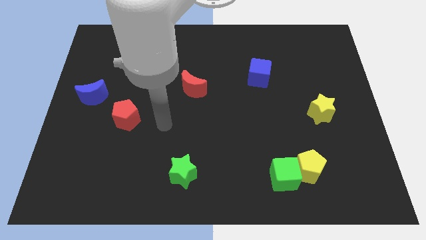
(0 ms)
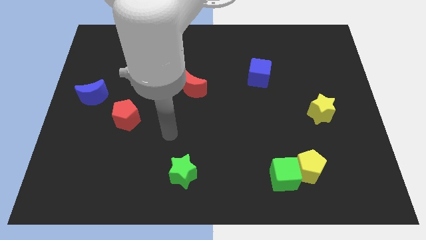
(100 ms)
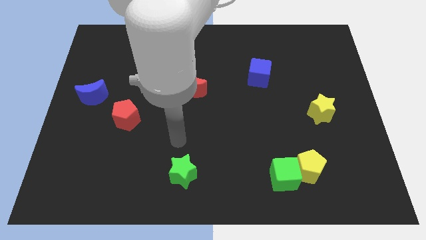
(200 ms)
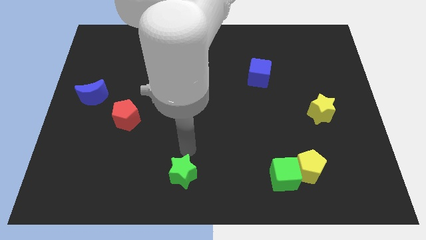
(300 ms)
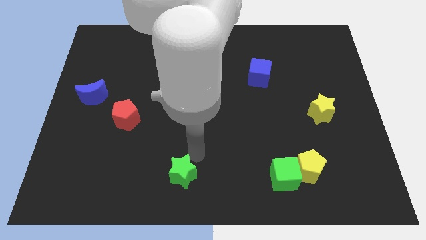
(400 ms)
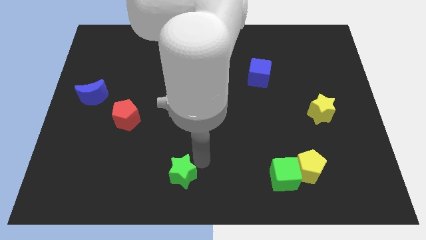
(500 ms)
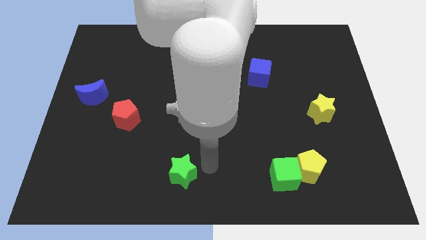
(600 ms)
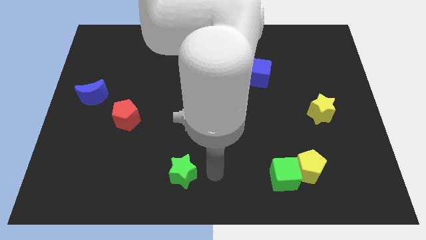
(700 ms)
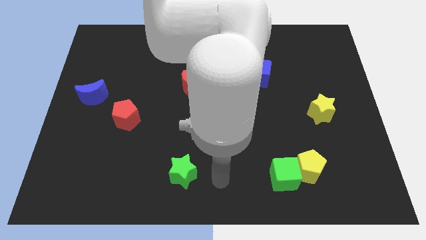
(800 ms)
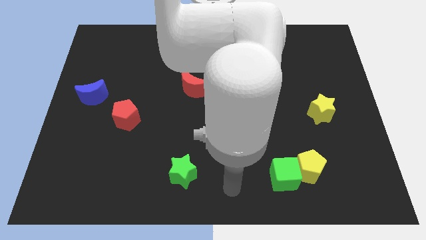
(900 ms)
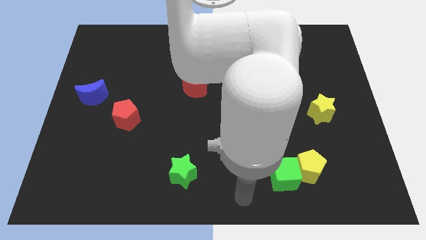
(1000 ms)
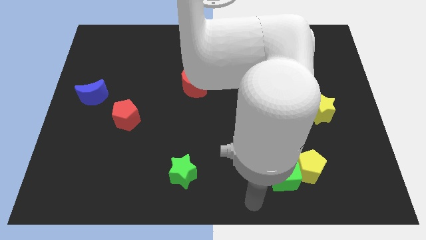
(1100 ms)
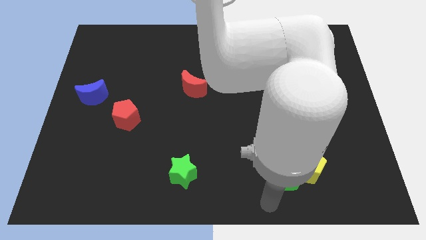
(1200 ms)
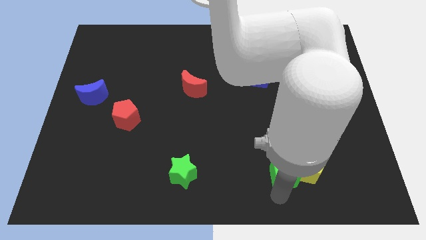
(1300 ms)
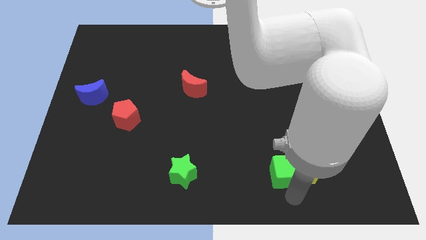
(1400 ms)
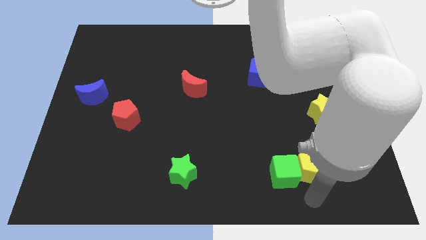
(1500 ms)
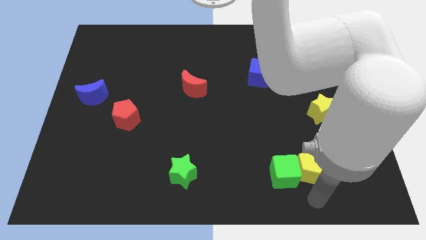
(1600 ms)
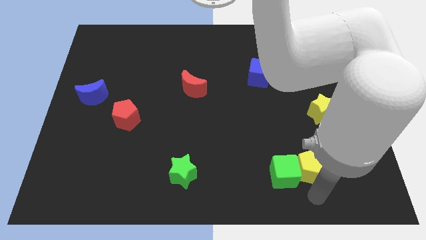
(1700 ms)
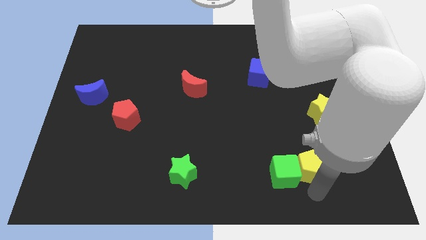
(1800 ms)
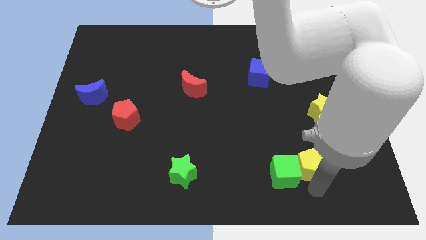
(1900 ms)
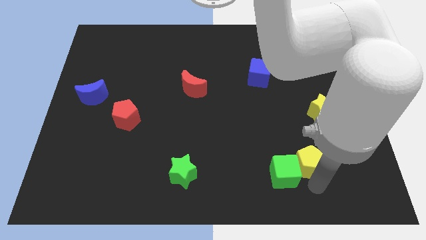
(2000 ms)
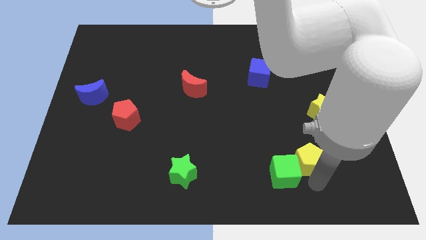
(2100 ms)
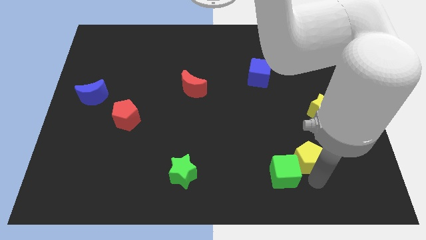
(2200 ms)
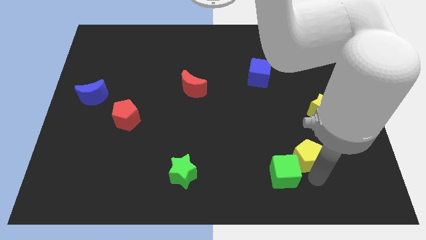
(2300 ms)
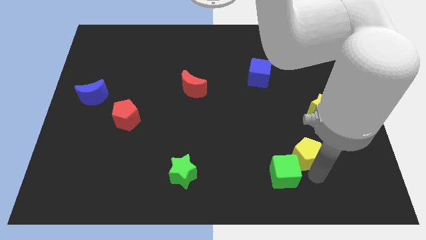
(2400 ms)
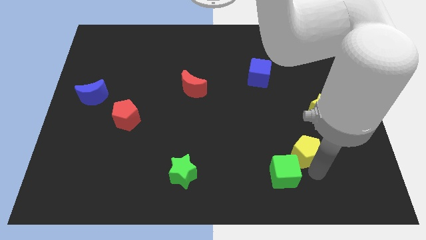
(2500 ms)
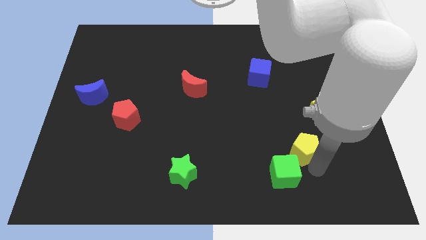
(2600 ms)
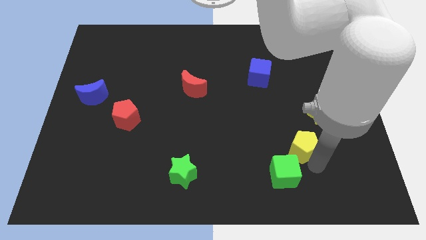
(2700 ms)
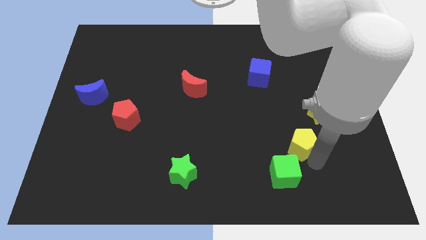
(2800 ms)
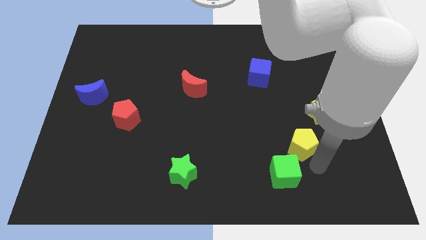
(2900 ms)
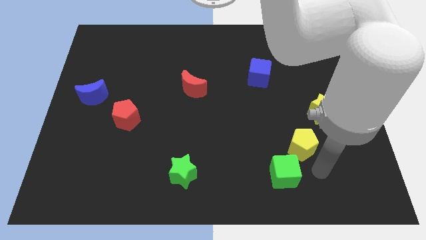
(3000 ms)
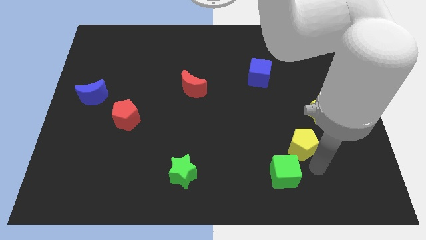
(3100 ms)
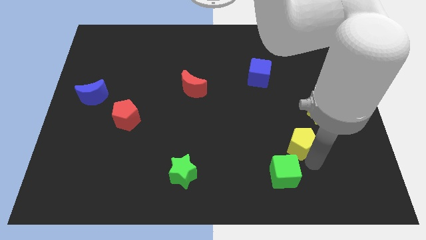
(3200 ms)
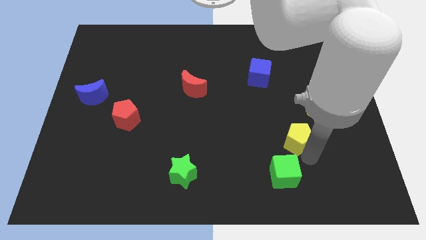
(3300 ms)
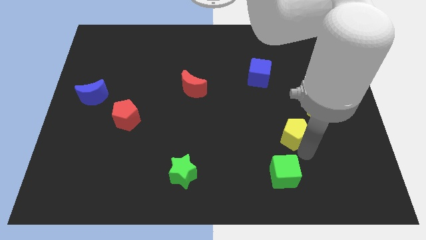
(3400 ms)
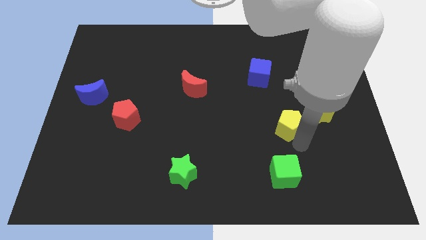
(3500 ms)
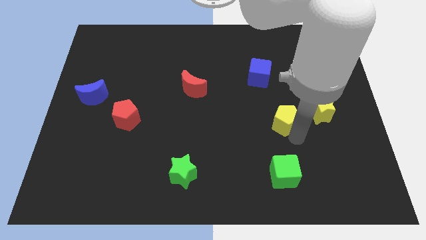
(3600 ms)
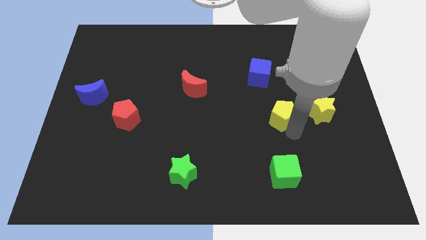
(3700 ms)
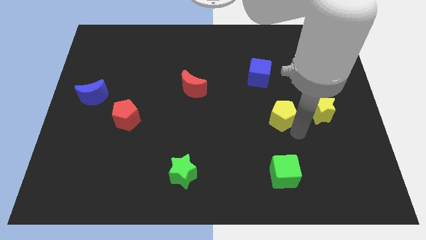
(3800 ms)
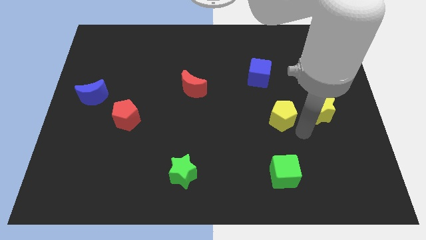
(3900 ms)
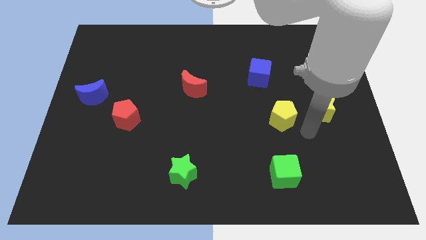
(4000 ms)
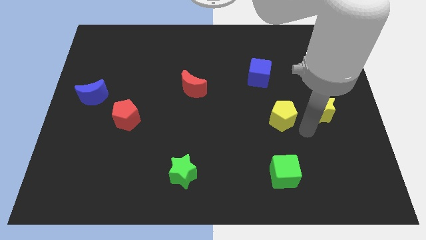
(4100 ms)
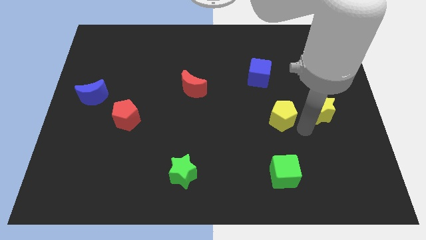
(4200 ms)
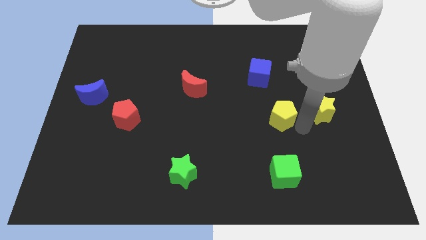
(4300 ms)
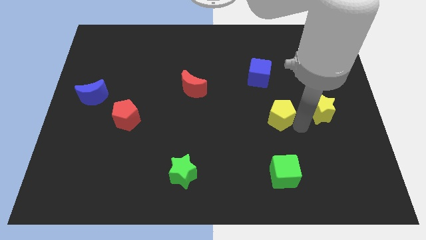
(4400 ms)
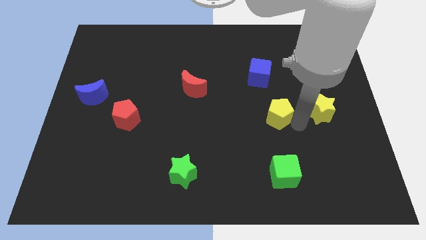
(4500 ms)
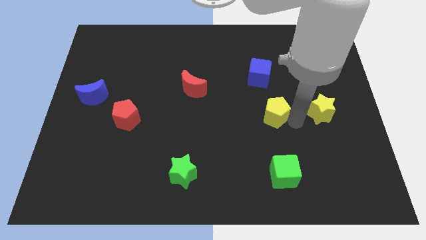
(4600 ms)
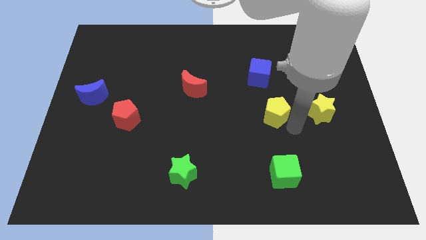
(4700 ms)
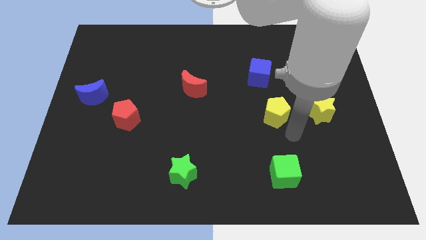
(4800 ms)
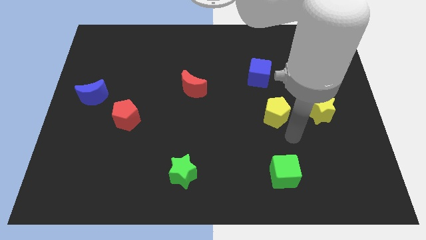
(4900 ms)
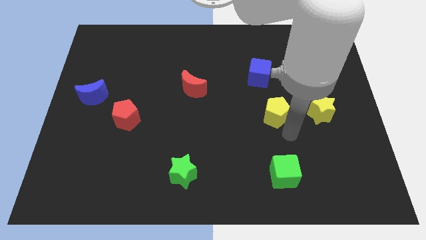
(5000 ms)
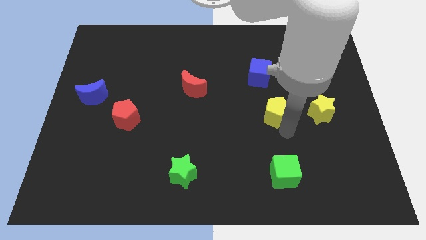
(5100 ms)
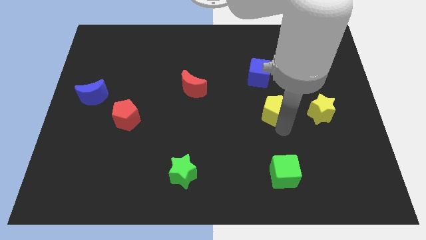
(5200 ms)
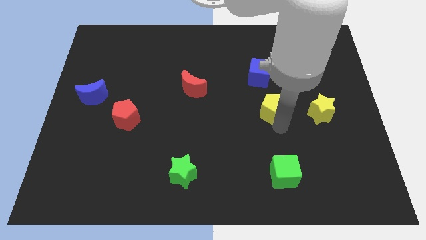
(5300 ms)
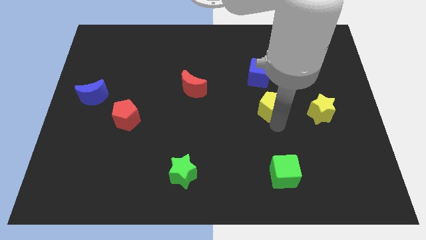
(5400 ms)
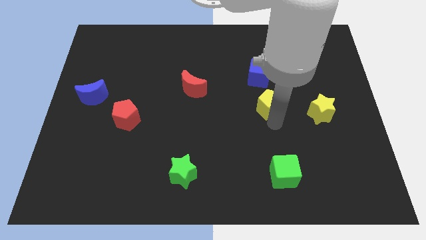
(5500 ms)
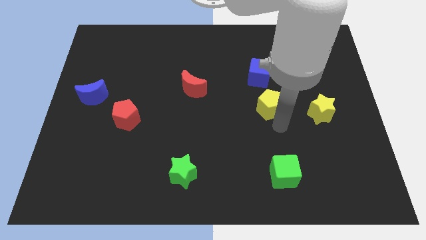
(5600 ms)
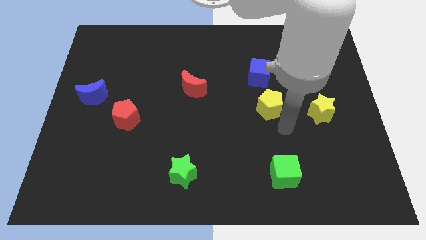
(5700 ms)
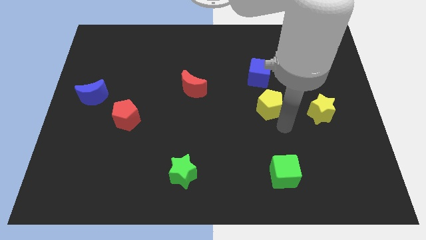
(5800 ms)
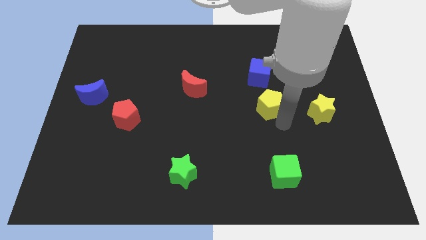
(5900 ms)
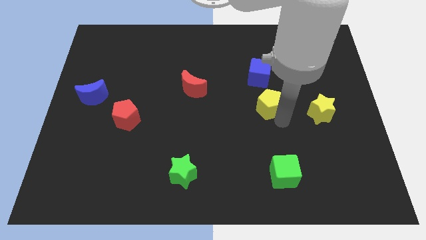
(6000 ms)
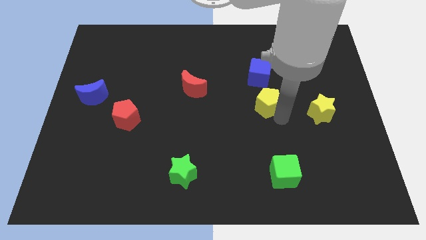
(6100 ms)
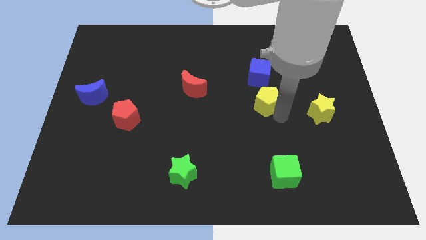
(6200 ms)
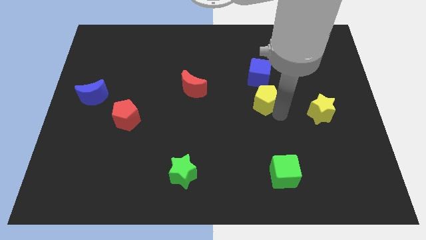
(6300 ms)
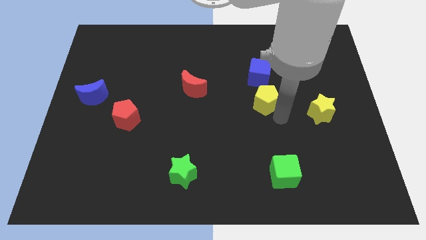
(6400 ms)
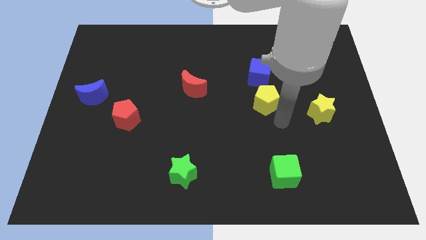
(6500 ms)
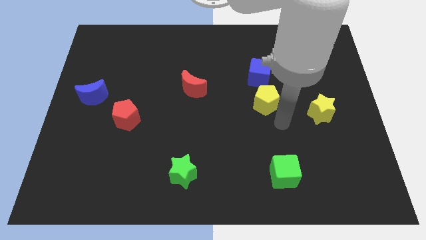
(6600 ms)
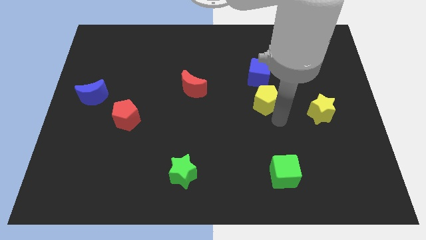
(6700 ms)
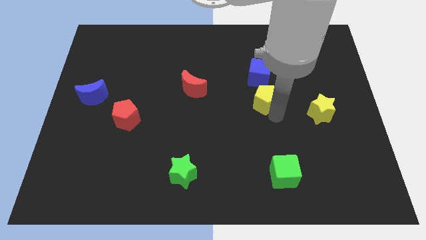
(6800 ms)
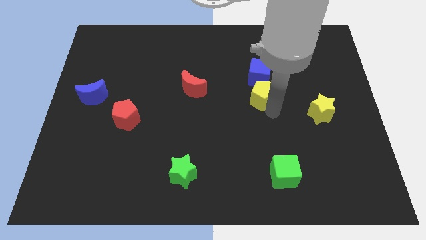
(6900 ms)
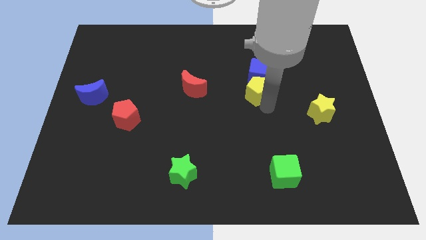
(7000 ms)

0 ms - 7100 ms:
move the yellow pentagon next to the blue cube
